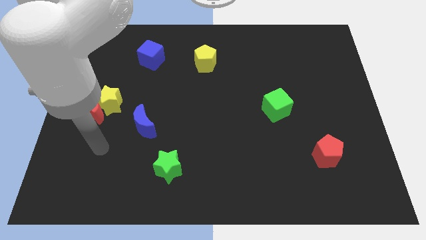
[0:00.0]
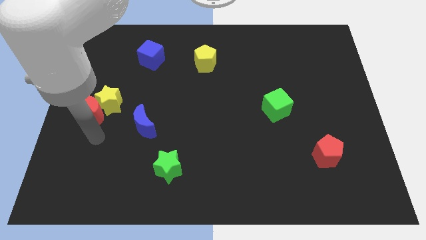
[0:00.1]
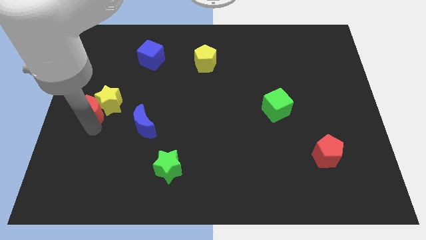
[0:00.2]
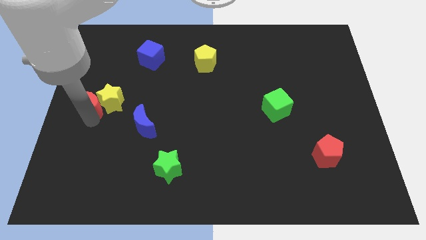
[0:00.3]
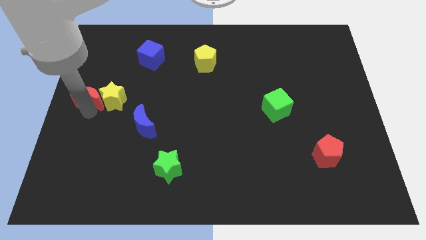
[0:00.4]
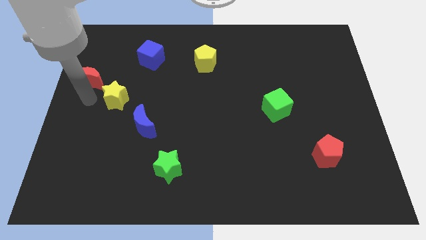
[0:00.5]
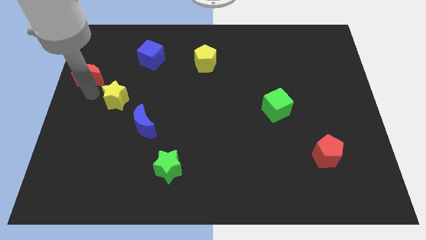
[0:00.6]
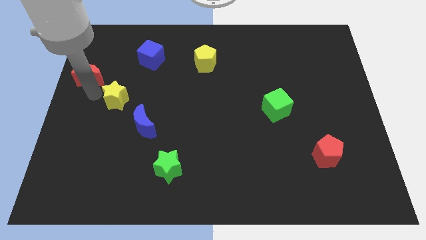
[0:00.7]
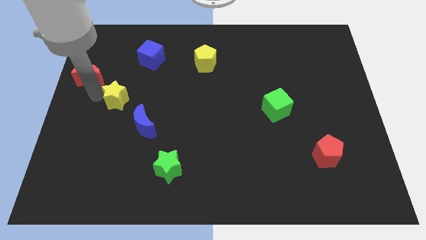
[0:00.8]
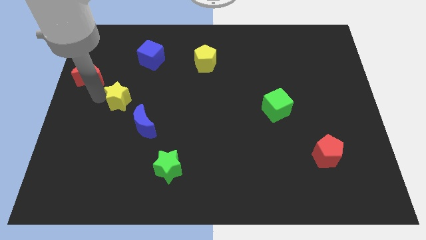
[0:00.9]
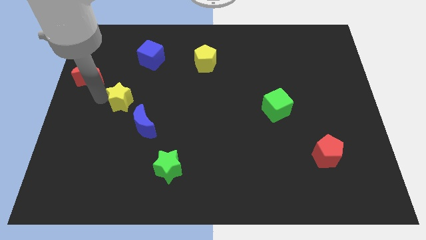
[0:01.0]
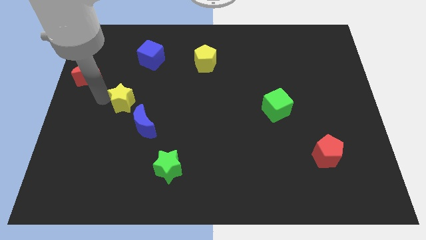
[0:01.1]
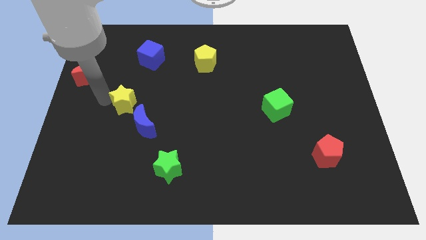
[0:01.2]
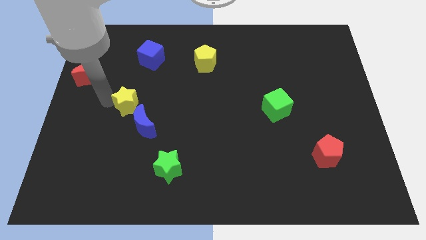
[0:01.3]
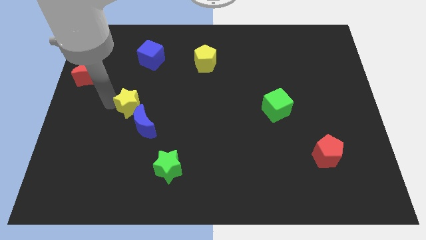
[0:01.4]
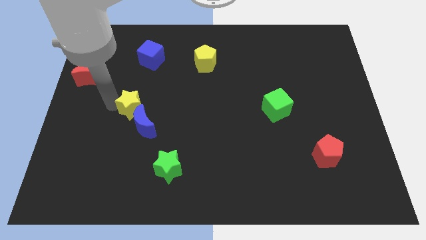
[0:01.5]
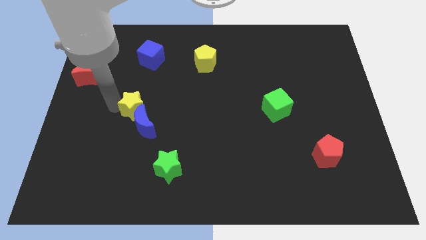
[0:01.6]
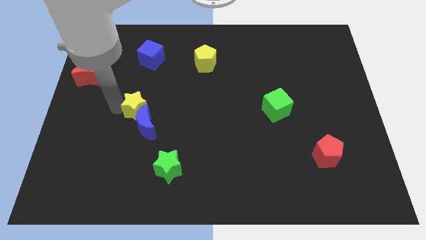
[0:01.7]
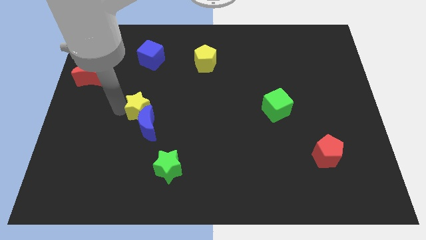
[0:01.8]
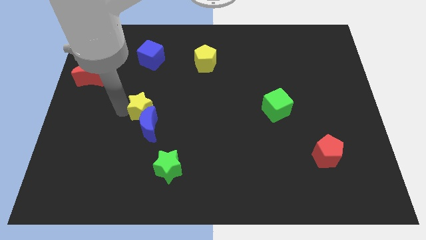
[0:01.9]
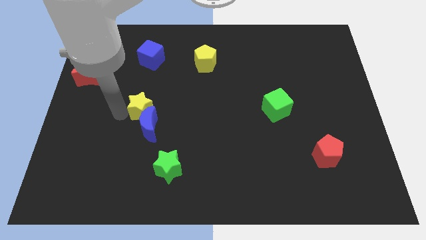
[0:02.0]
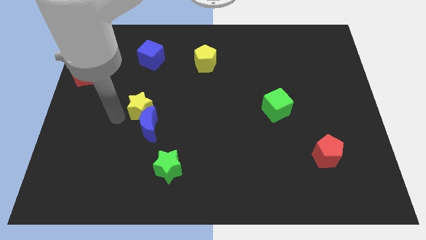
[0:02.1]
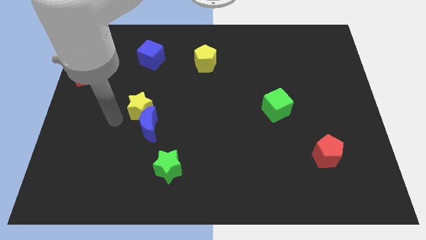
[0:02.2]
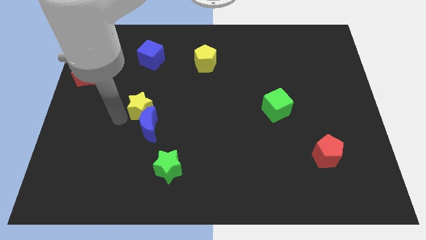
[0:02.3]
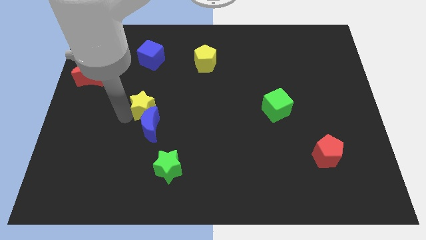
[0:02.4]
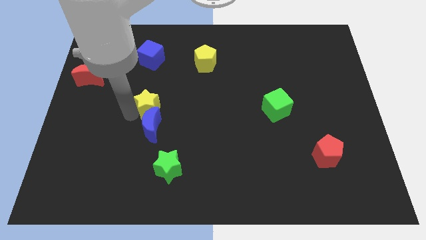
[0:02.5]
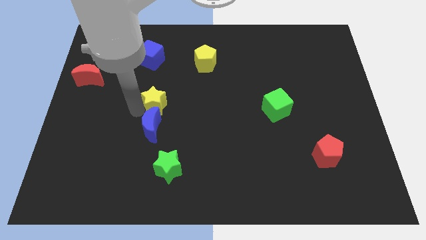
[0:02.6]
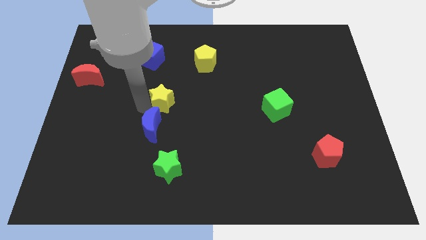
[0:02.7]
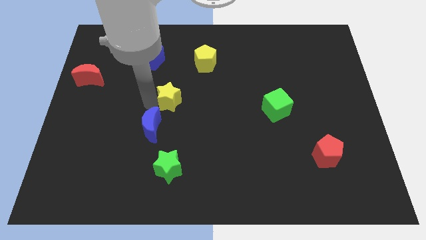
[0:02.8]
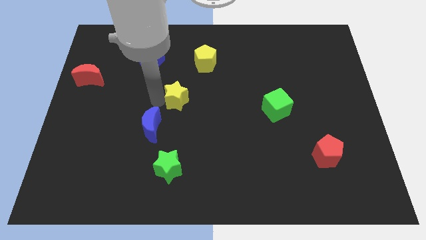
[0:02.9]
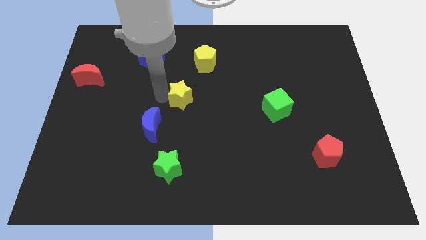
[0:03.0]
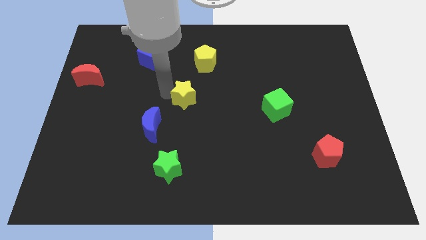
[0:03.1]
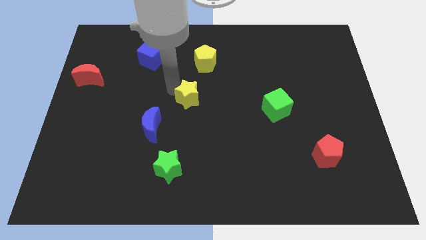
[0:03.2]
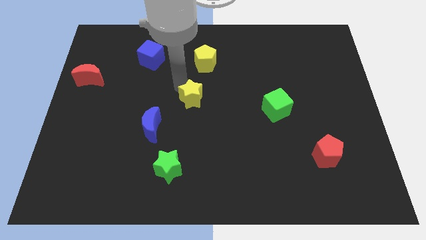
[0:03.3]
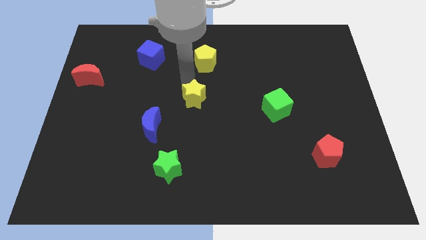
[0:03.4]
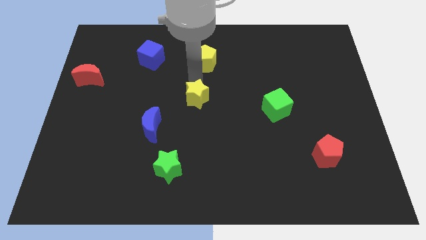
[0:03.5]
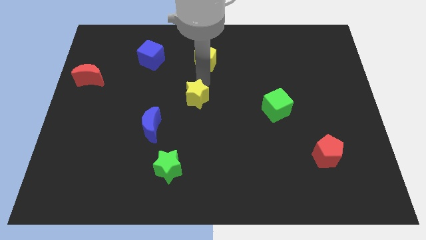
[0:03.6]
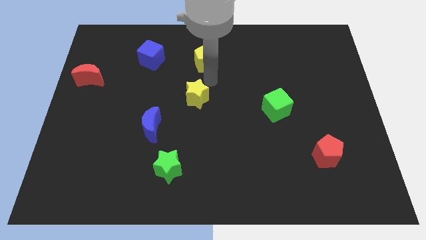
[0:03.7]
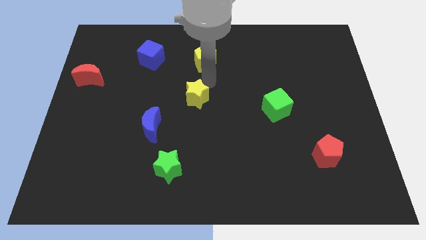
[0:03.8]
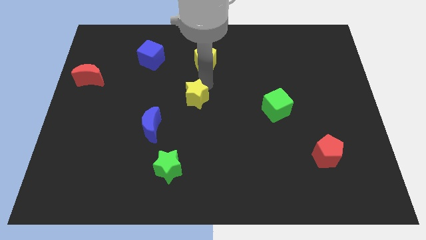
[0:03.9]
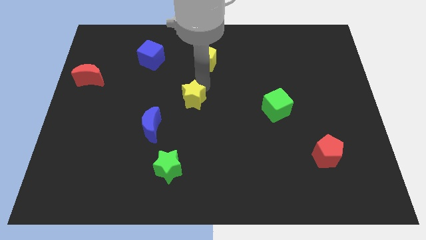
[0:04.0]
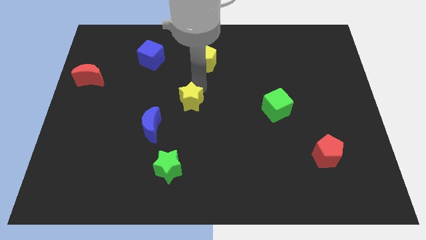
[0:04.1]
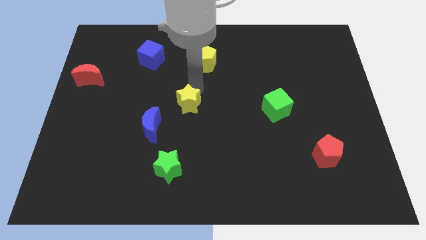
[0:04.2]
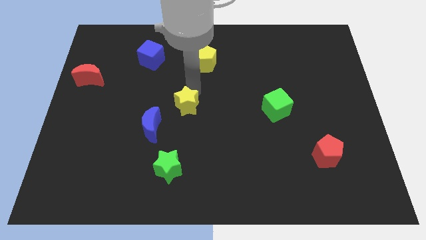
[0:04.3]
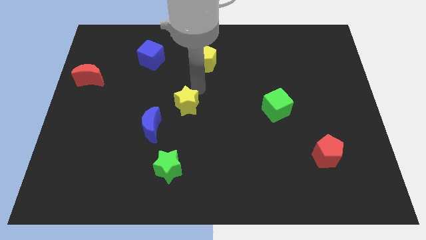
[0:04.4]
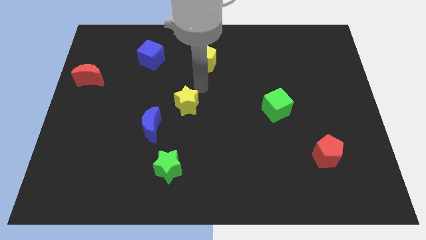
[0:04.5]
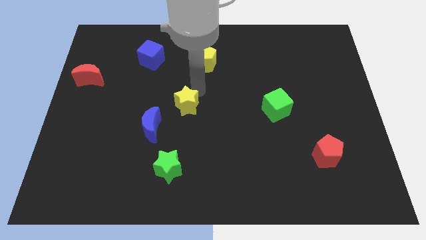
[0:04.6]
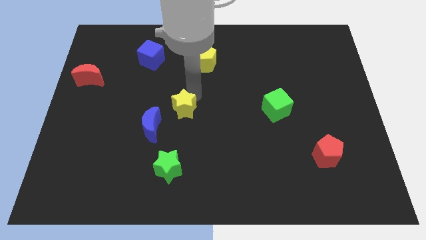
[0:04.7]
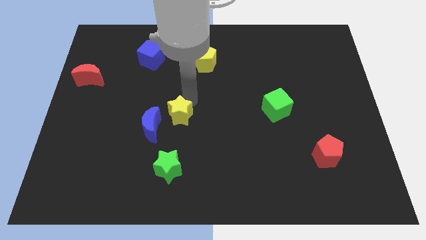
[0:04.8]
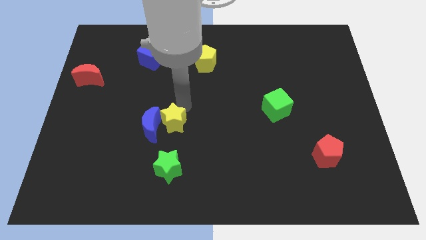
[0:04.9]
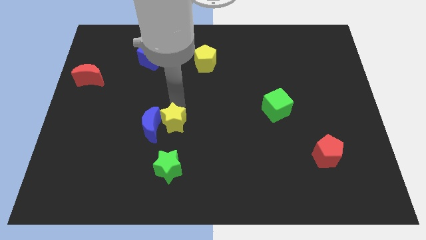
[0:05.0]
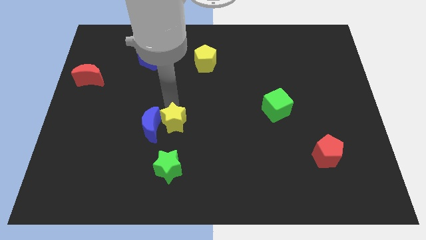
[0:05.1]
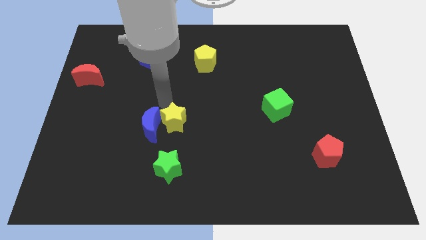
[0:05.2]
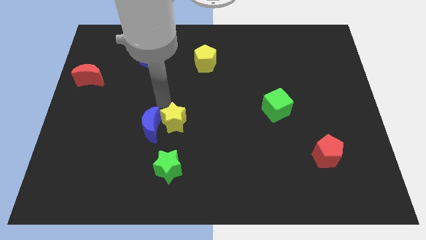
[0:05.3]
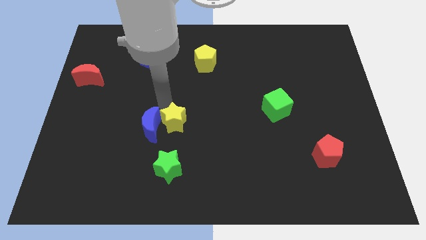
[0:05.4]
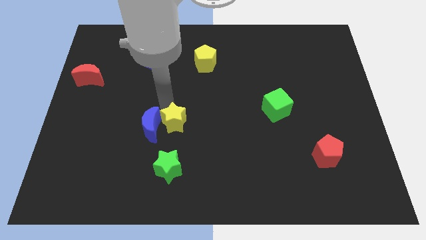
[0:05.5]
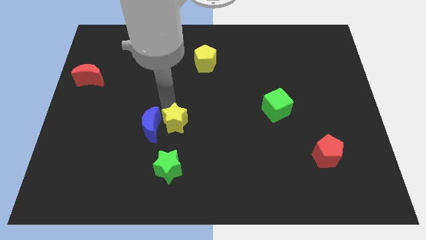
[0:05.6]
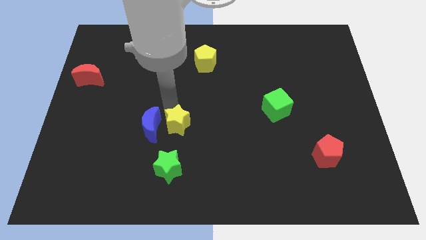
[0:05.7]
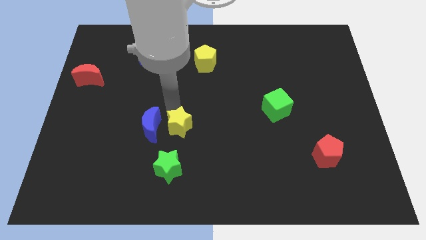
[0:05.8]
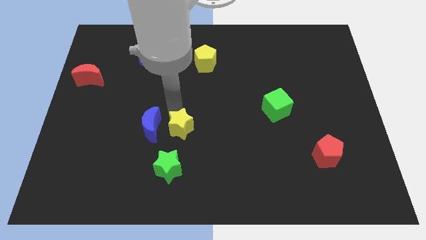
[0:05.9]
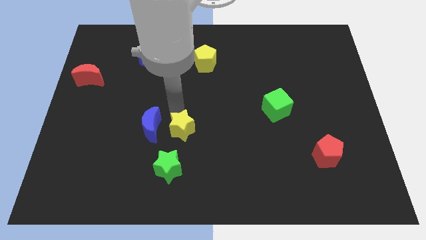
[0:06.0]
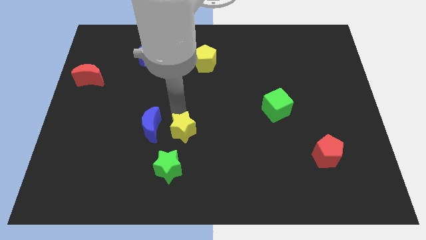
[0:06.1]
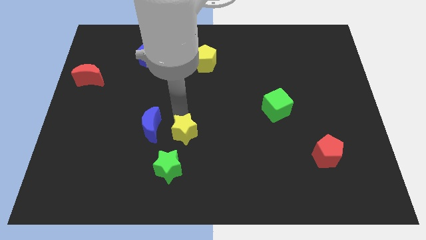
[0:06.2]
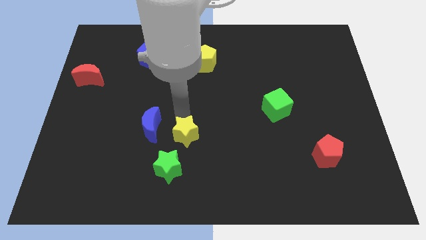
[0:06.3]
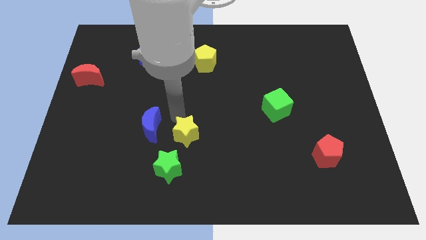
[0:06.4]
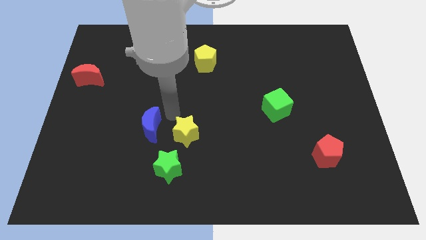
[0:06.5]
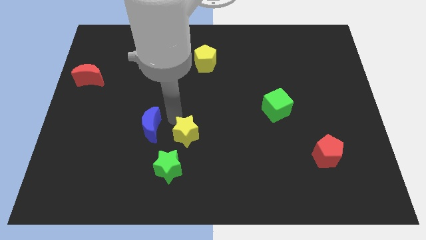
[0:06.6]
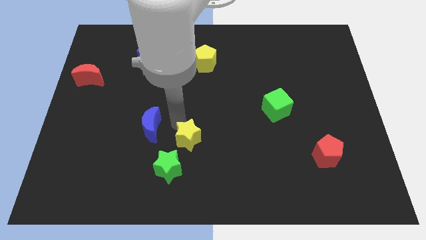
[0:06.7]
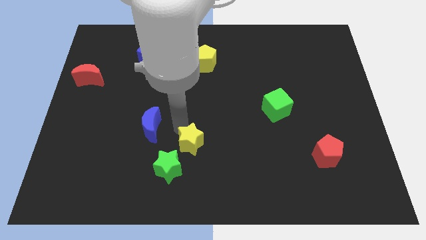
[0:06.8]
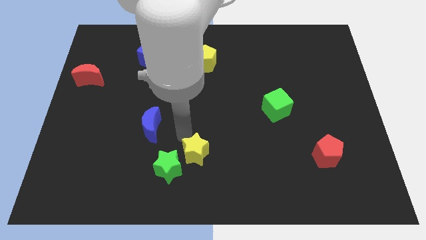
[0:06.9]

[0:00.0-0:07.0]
move the yellow star to the right of the green star
